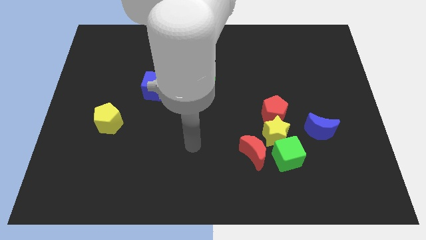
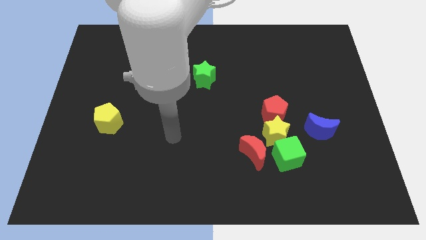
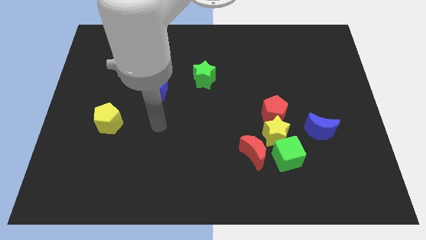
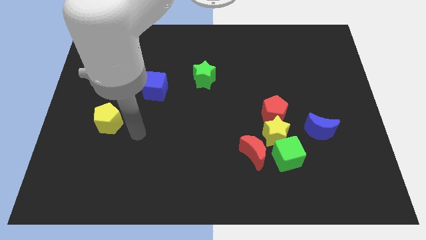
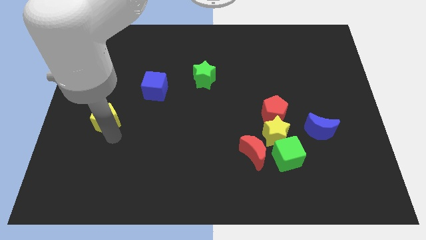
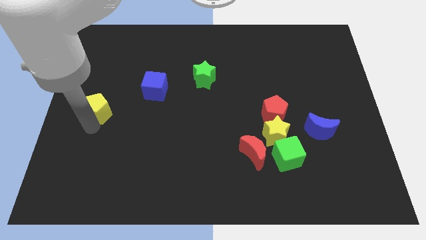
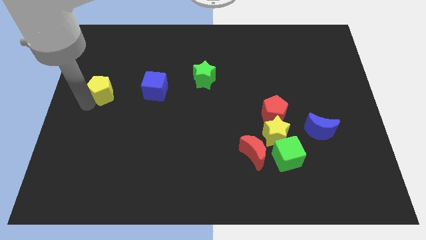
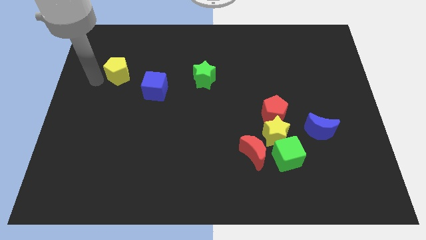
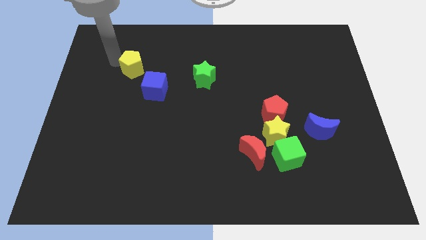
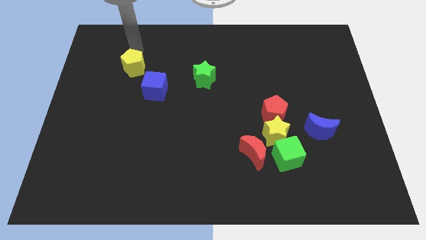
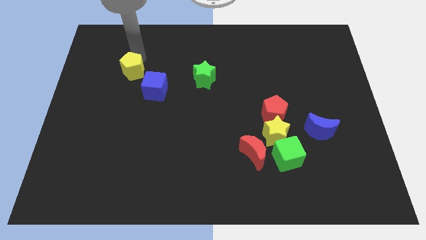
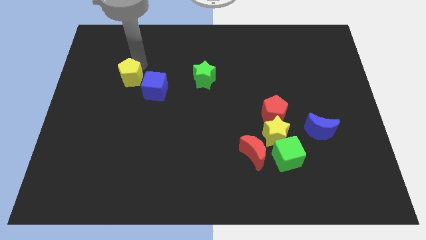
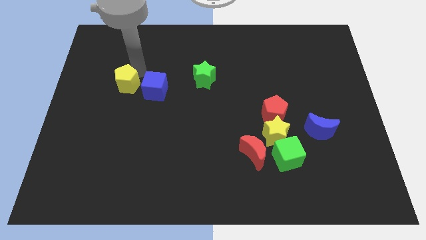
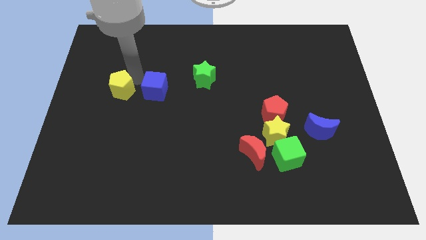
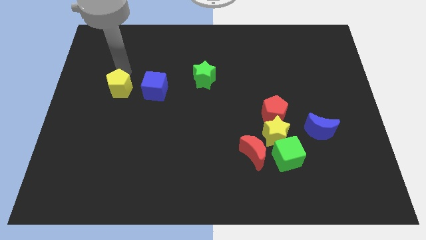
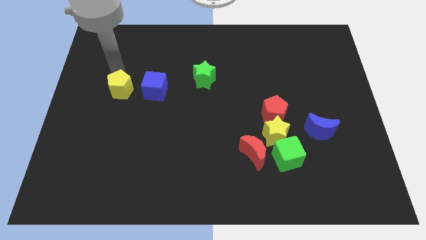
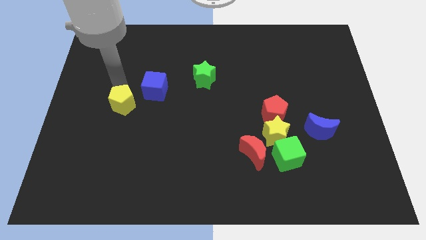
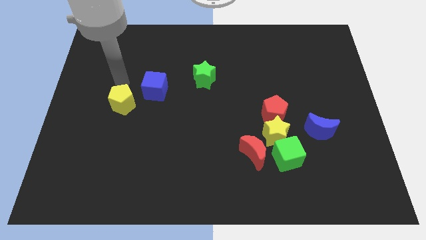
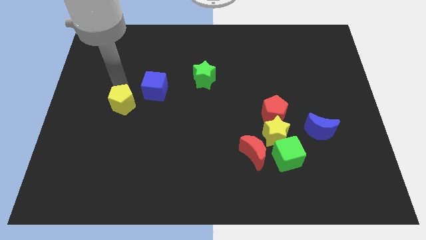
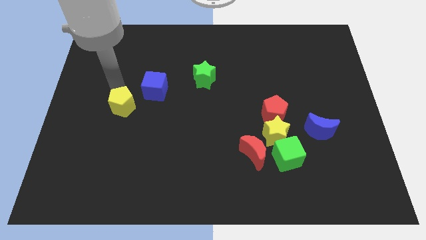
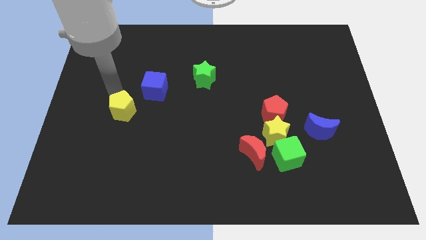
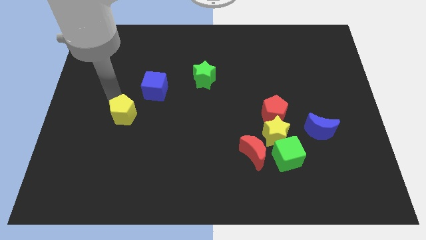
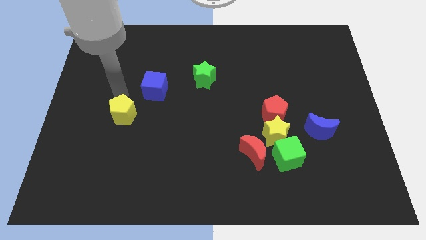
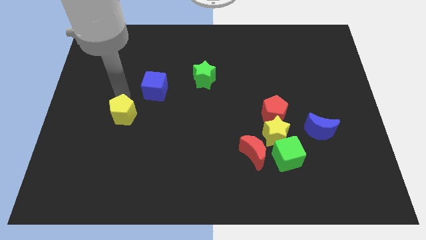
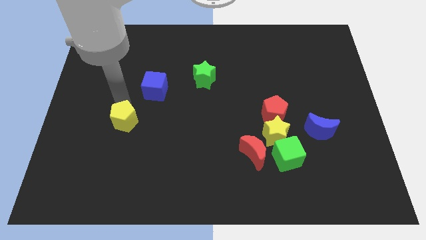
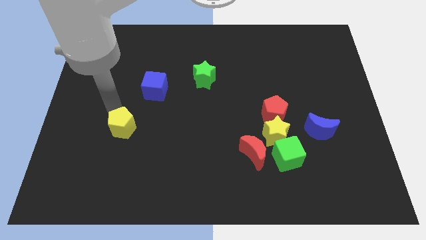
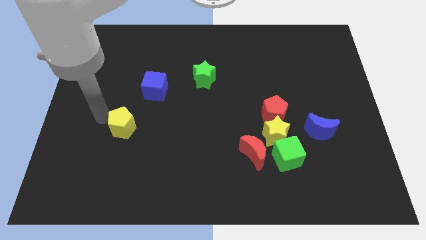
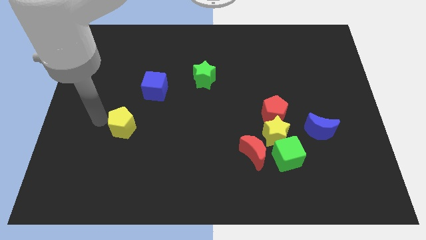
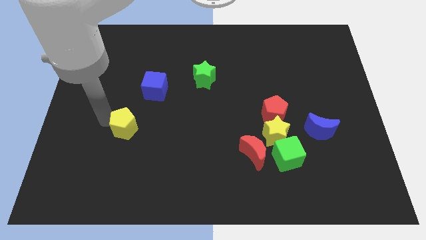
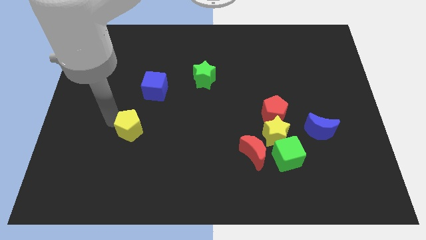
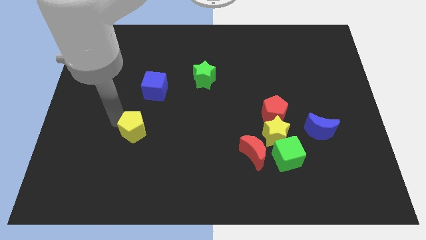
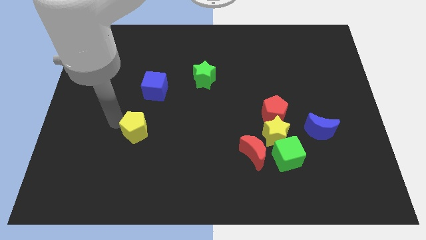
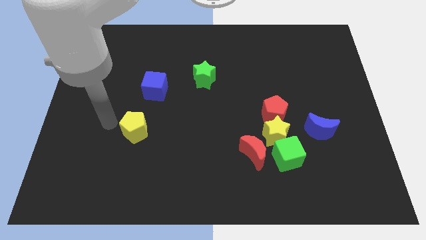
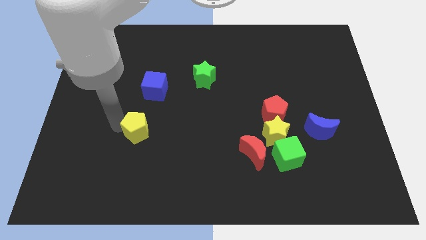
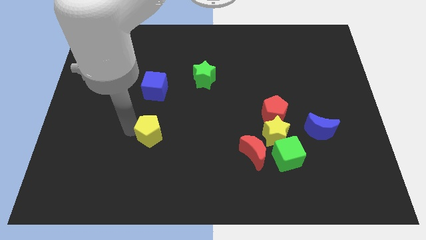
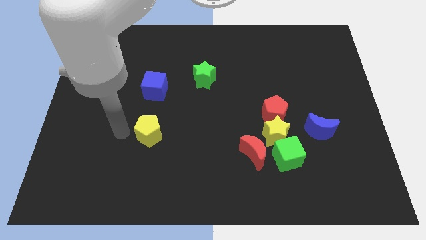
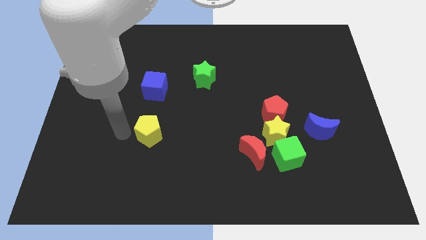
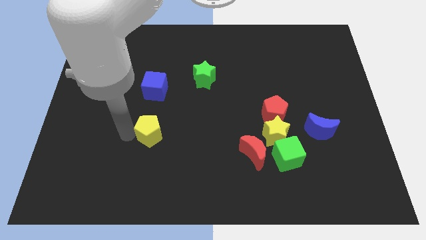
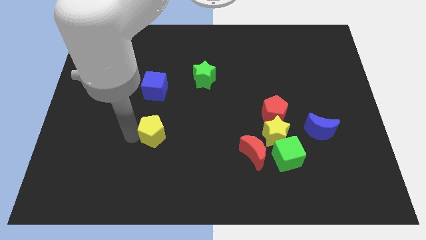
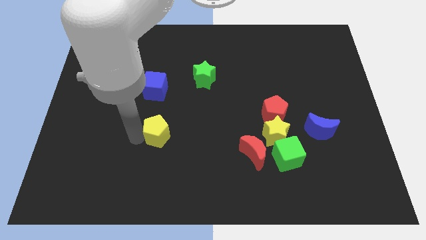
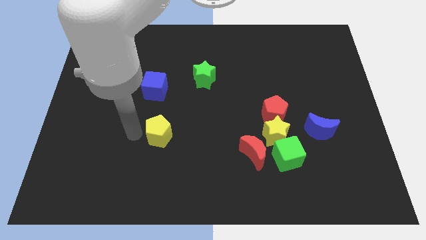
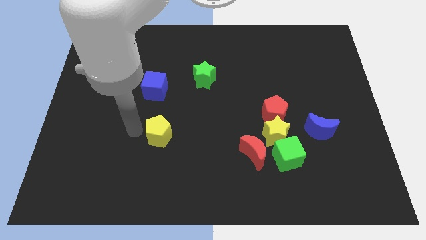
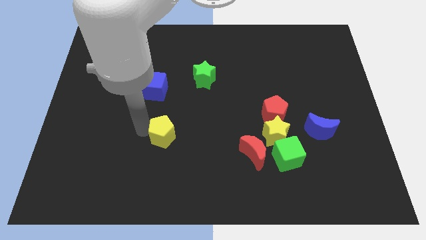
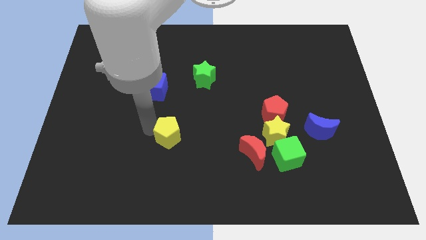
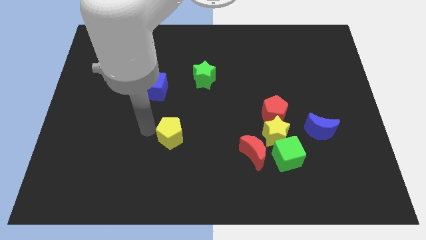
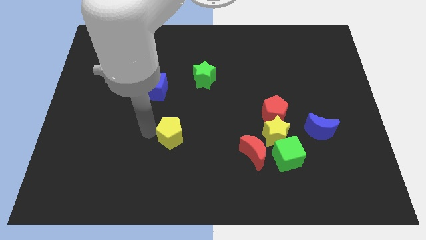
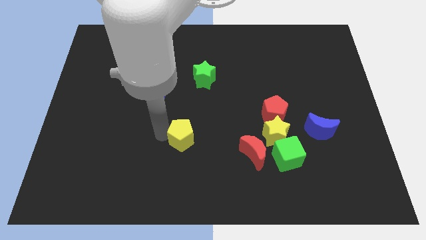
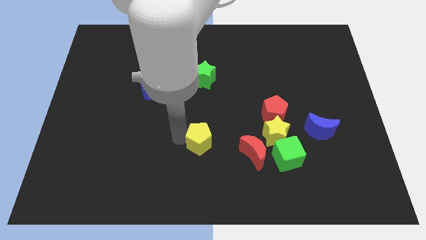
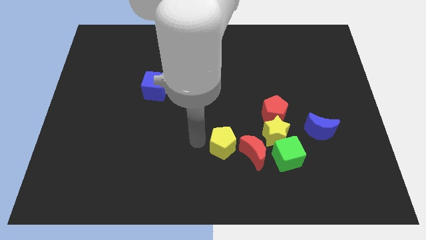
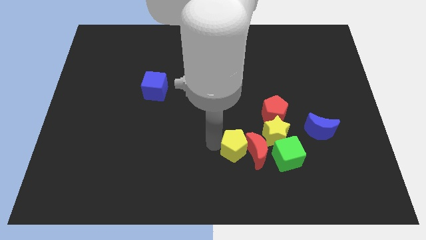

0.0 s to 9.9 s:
push the yellow pentagon to the red moon

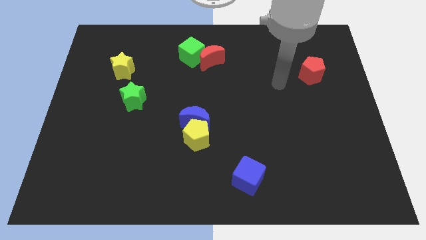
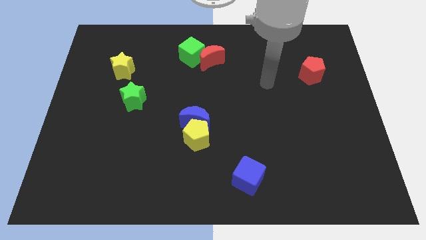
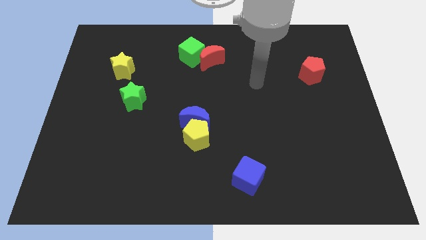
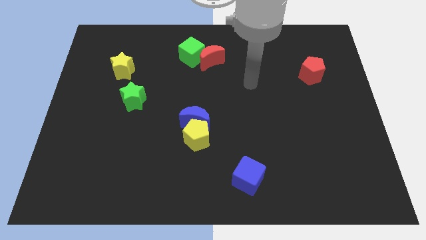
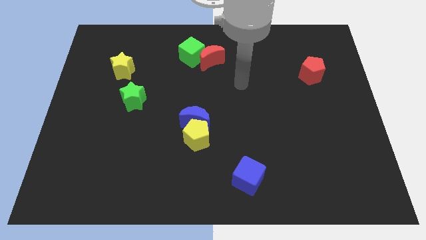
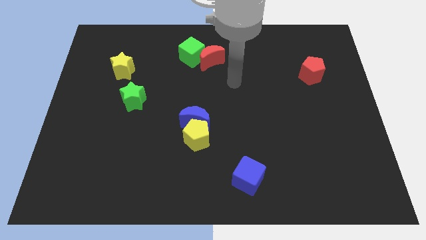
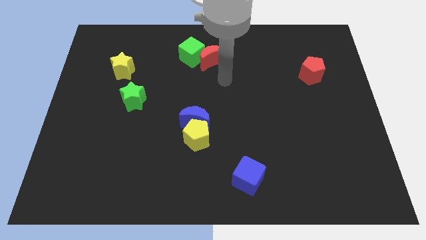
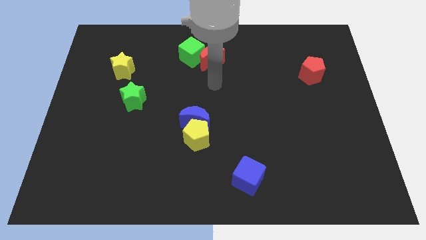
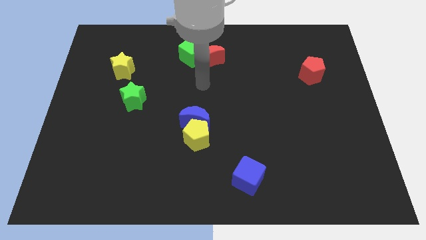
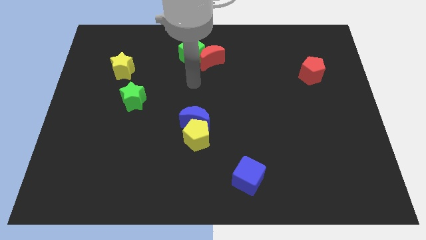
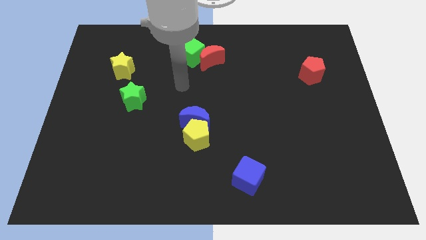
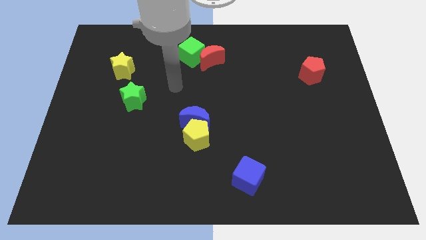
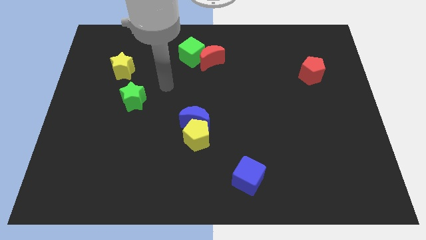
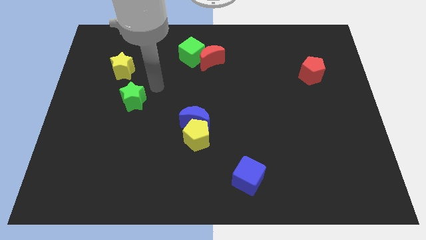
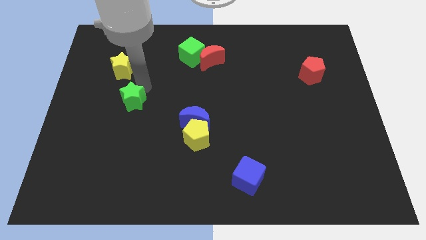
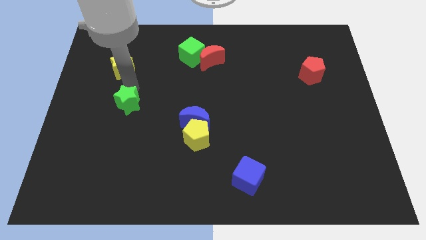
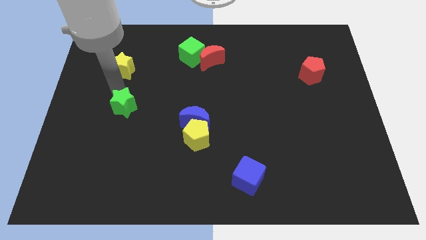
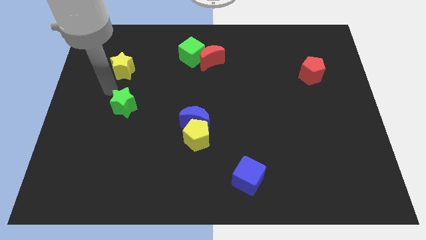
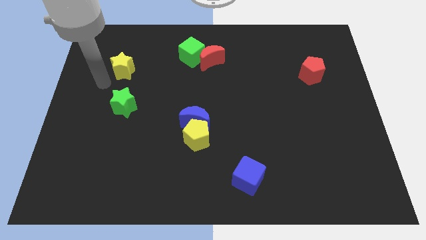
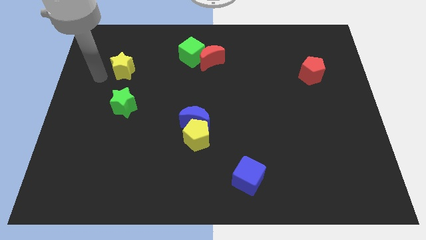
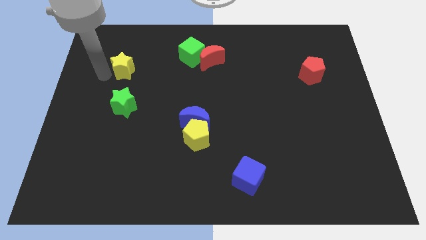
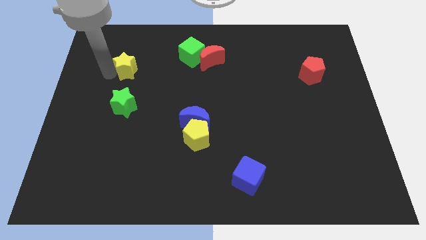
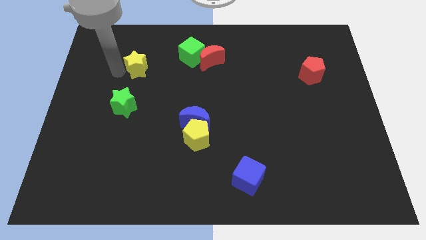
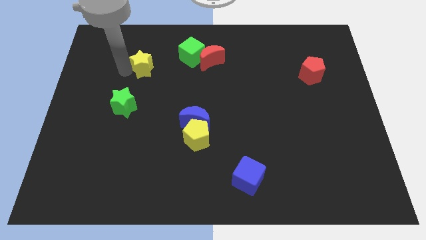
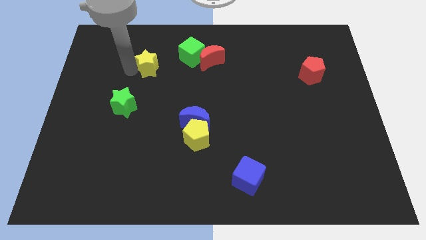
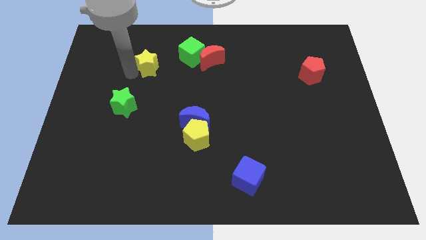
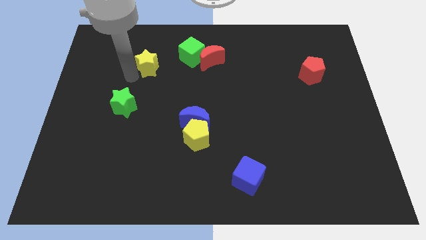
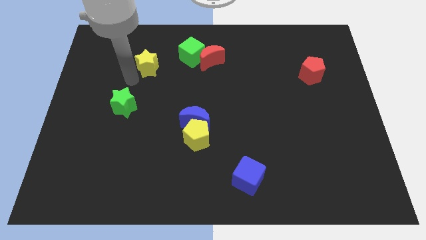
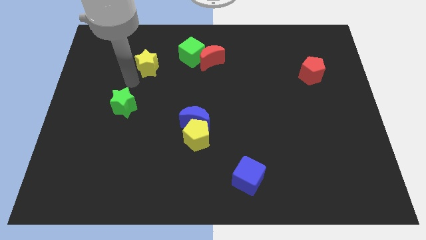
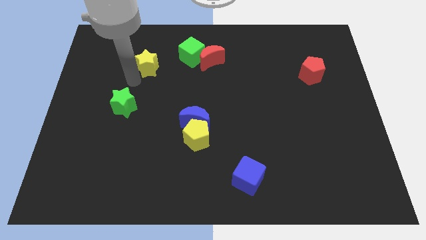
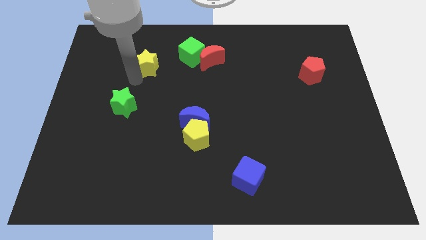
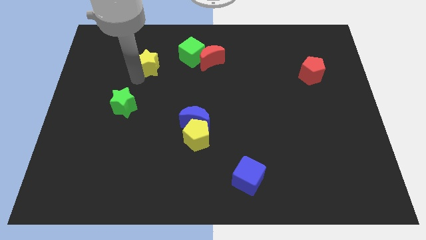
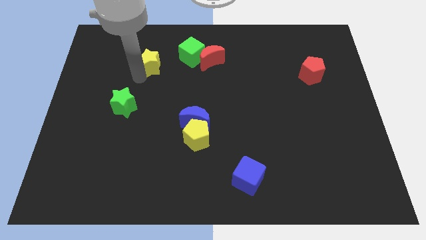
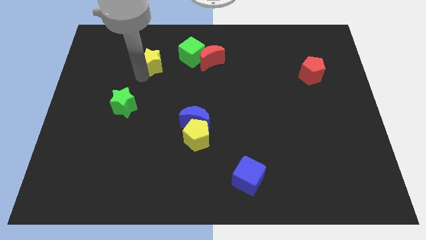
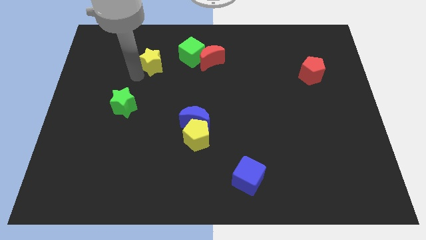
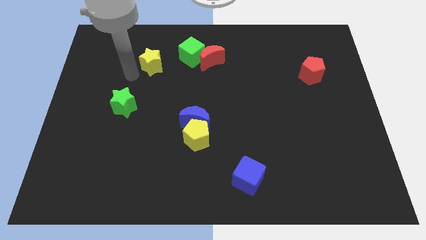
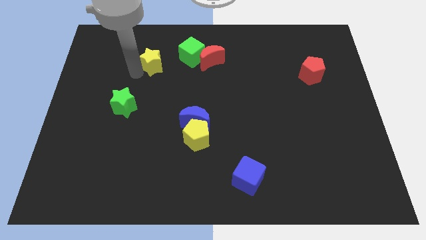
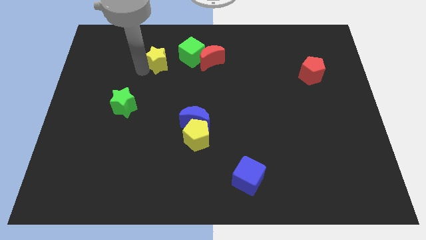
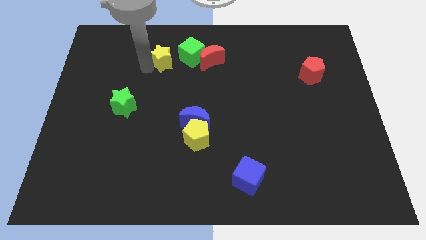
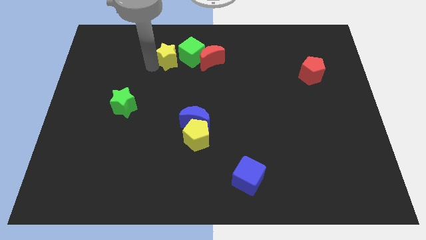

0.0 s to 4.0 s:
put the yellow star to the green cube
